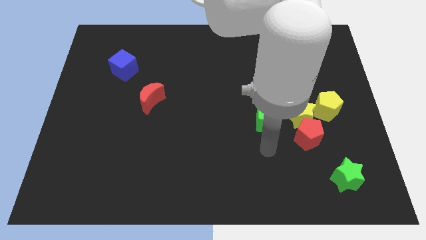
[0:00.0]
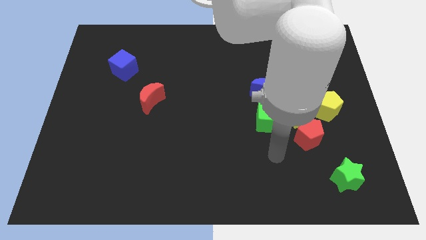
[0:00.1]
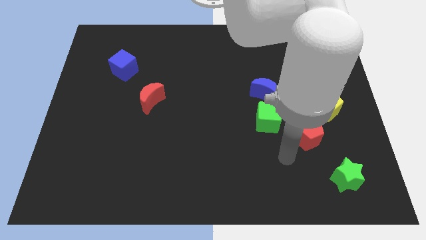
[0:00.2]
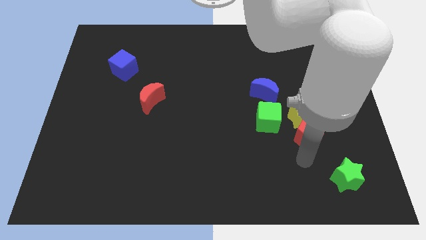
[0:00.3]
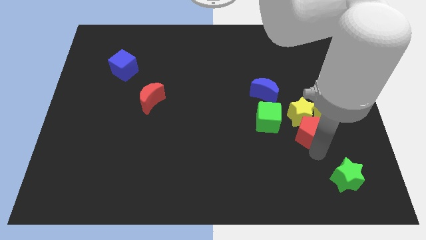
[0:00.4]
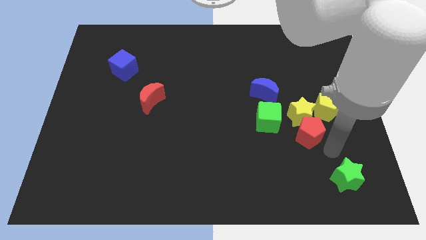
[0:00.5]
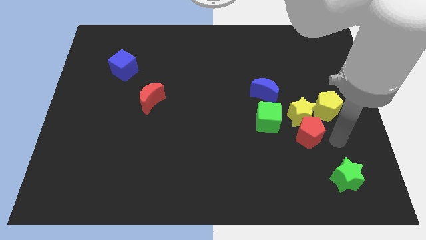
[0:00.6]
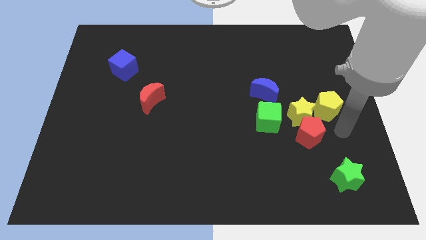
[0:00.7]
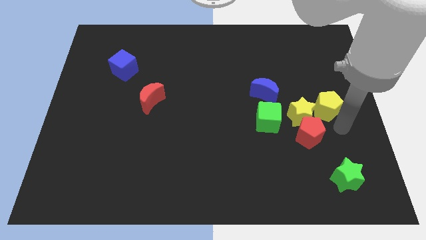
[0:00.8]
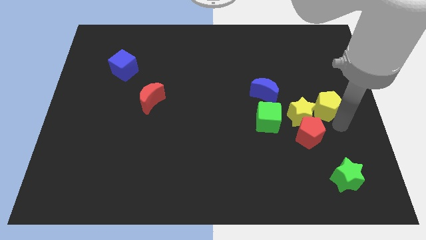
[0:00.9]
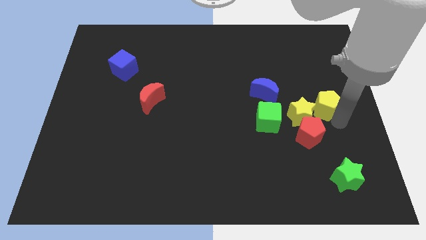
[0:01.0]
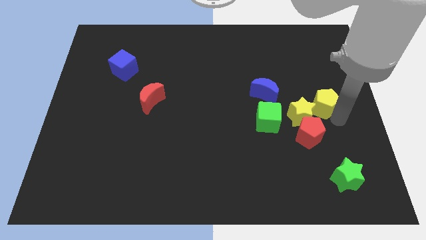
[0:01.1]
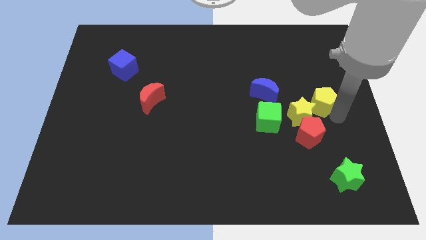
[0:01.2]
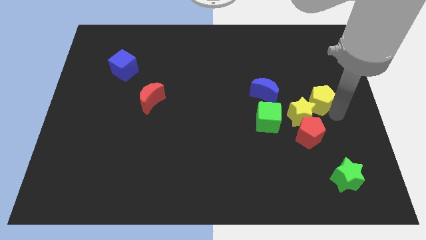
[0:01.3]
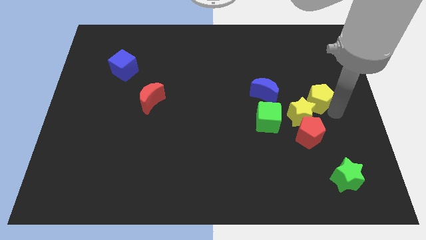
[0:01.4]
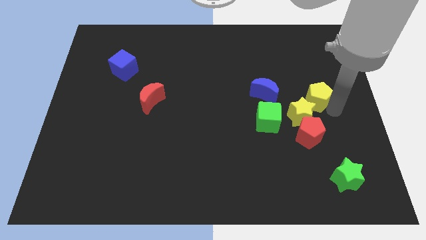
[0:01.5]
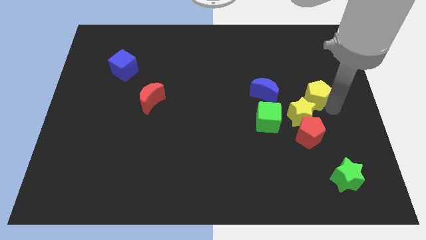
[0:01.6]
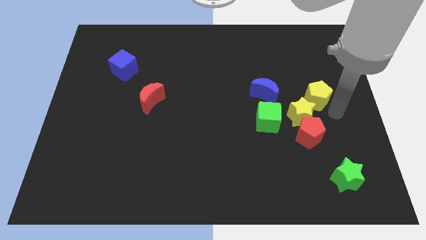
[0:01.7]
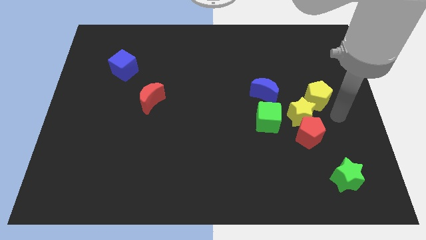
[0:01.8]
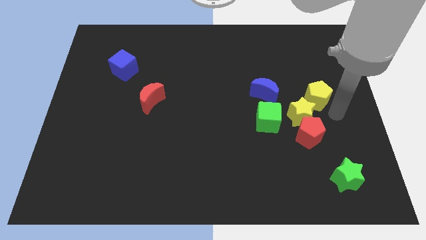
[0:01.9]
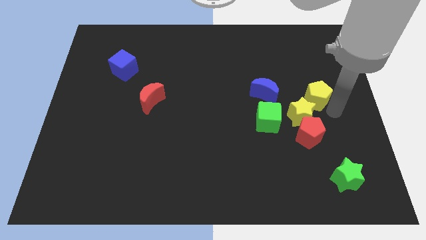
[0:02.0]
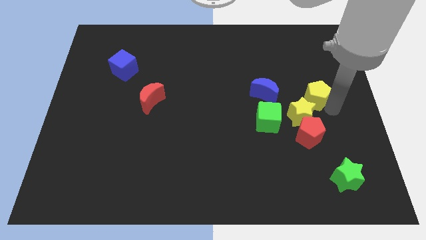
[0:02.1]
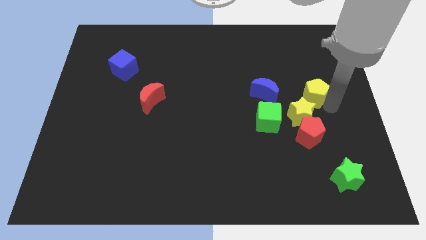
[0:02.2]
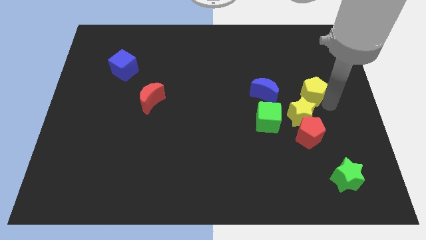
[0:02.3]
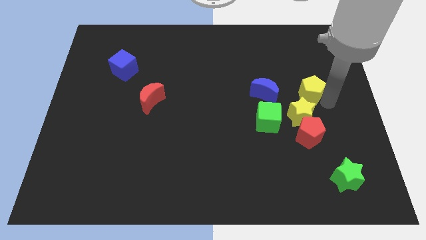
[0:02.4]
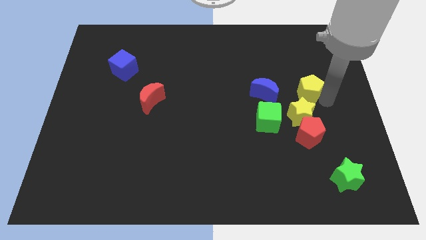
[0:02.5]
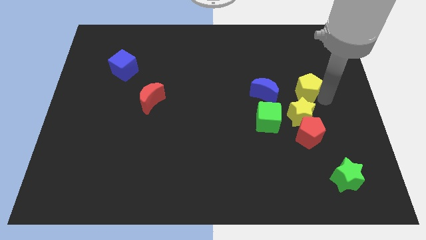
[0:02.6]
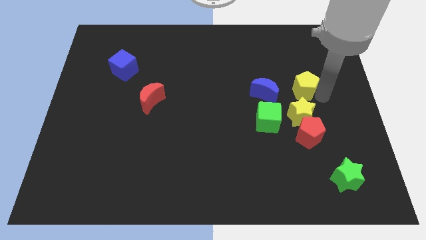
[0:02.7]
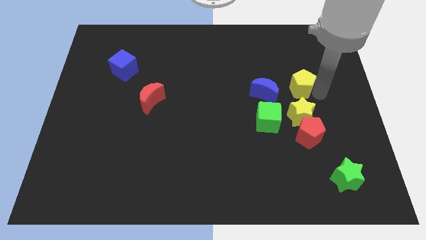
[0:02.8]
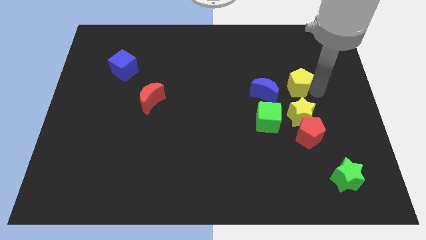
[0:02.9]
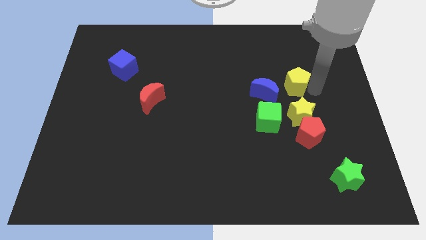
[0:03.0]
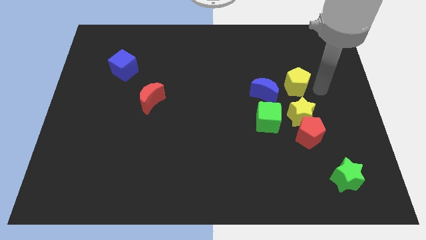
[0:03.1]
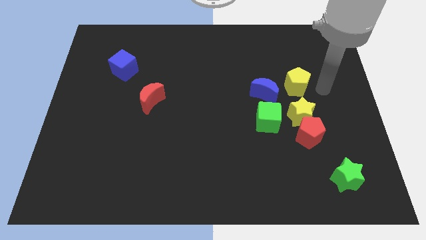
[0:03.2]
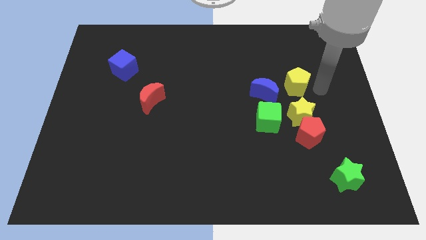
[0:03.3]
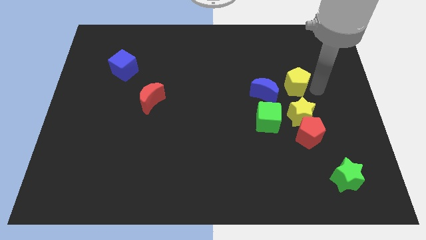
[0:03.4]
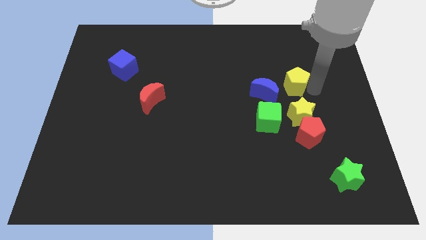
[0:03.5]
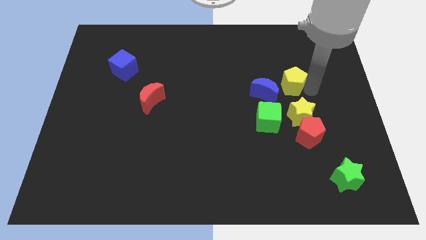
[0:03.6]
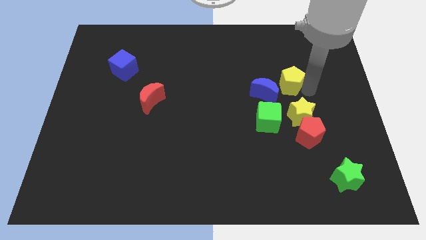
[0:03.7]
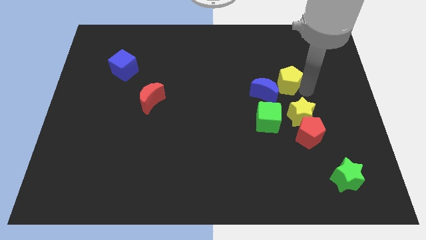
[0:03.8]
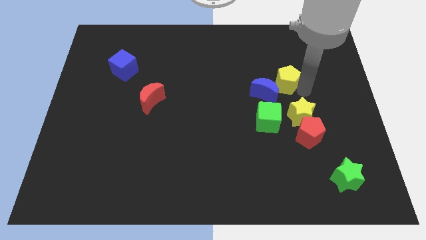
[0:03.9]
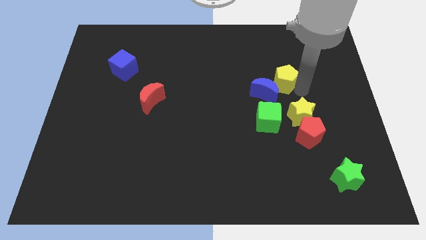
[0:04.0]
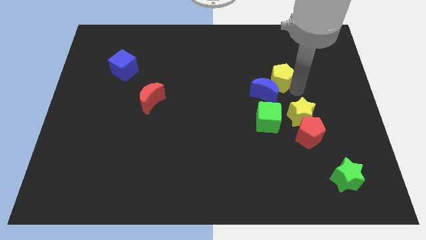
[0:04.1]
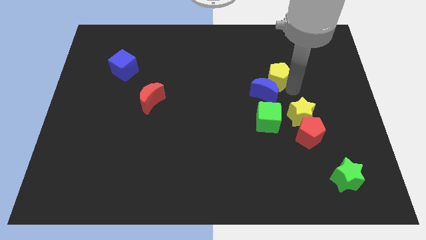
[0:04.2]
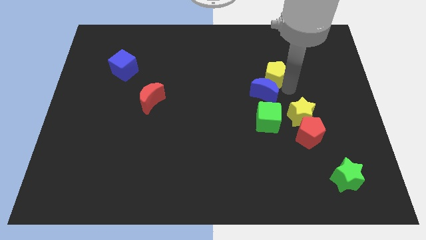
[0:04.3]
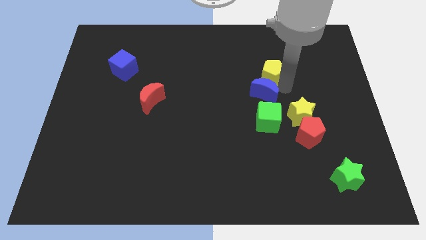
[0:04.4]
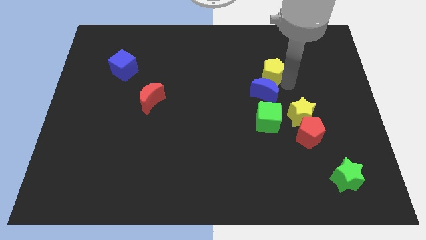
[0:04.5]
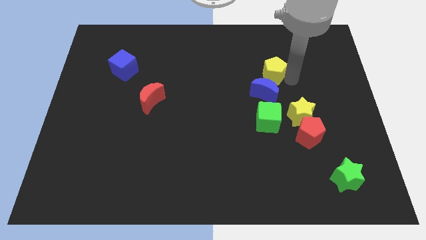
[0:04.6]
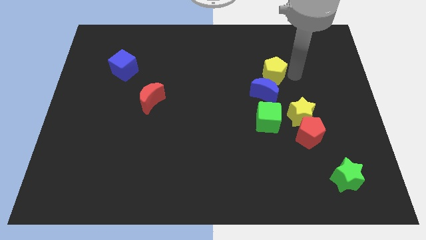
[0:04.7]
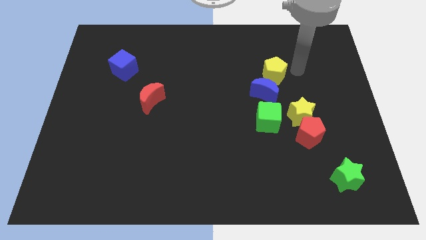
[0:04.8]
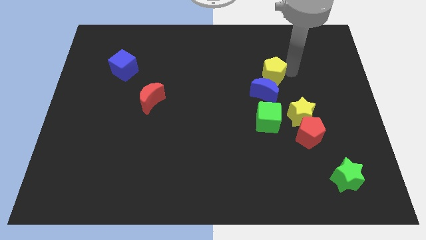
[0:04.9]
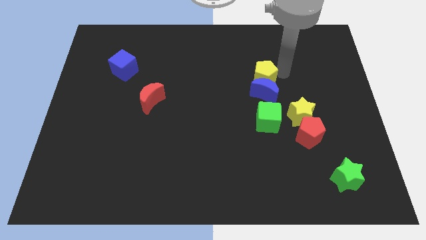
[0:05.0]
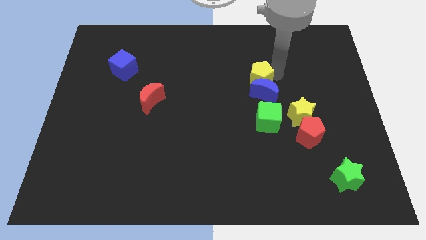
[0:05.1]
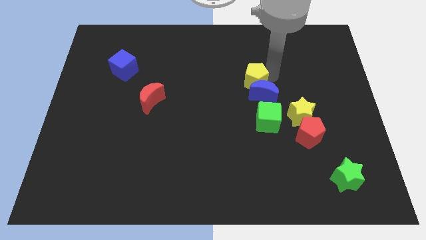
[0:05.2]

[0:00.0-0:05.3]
put the yellow pentagon to the center
